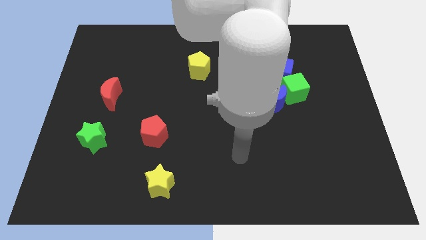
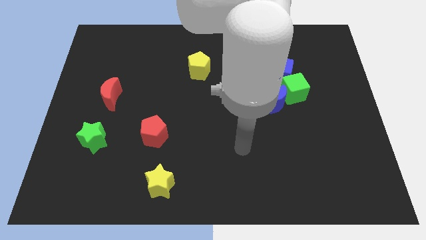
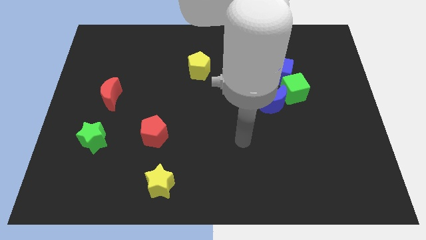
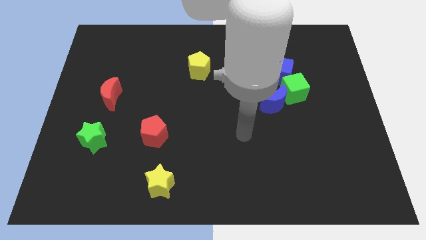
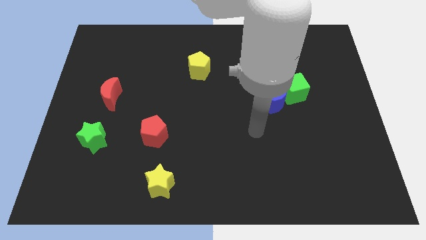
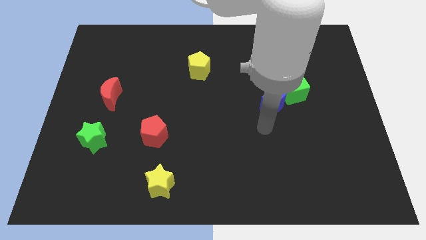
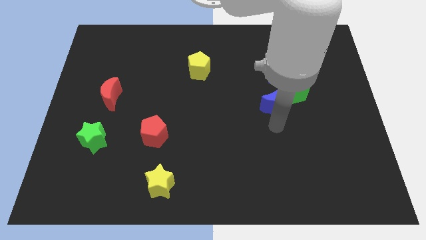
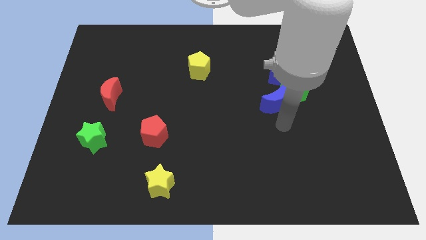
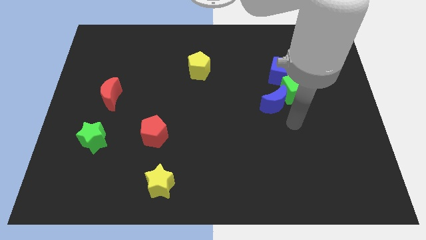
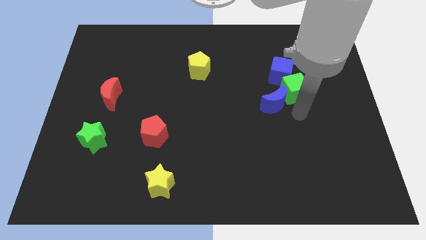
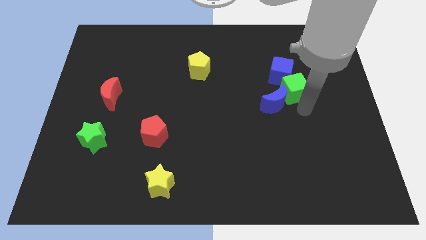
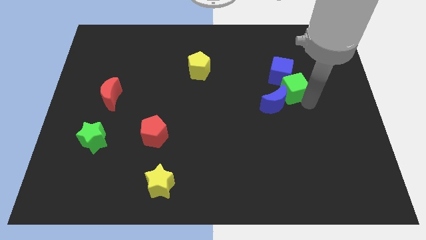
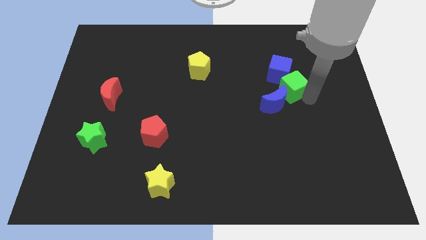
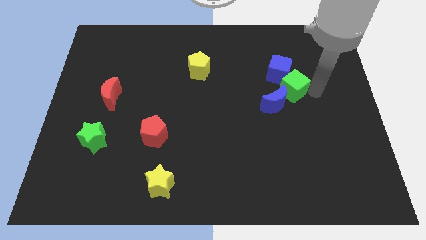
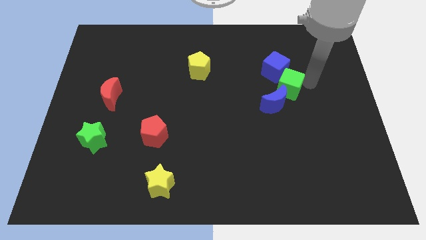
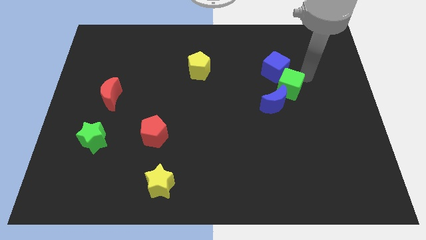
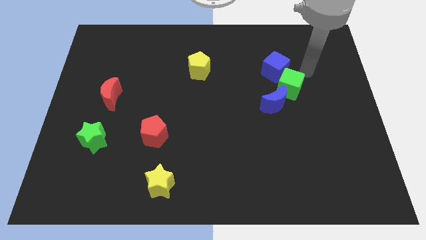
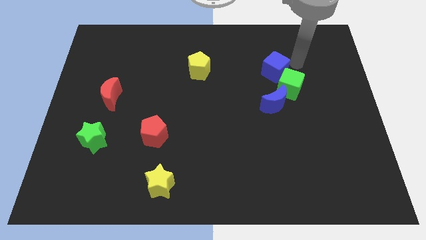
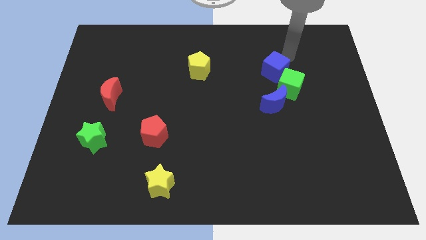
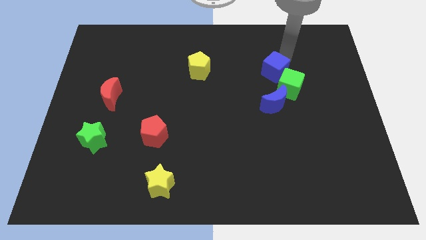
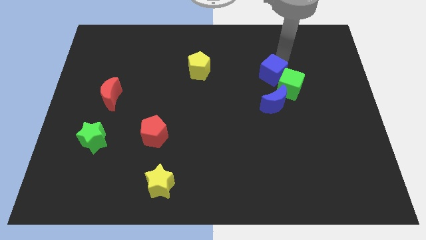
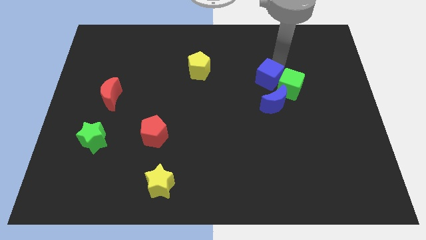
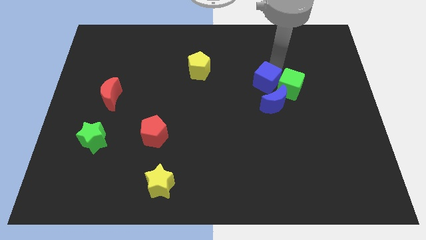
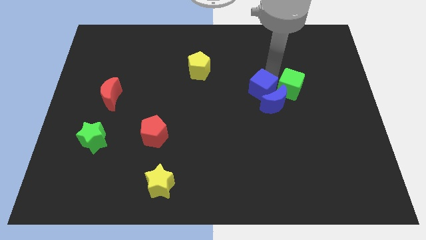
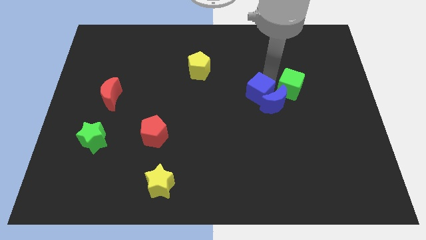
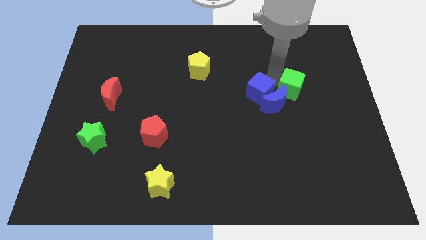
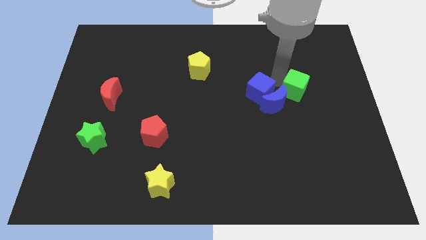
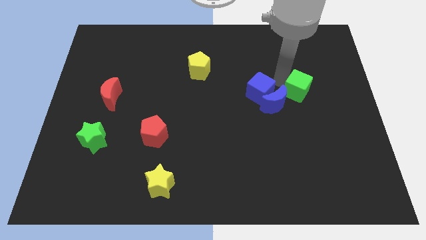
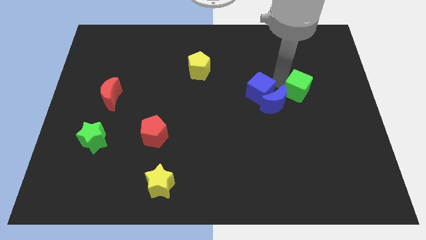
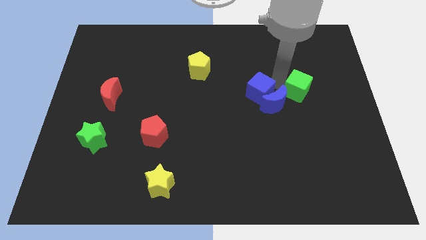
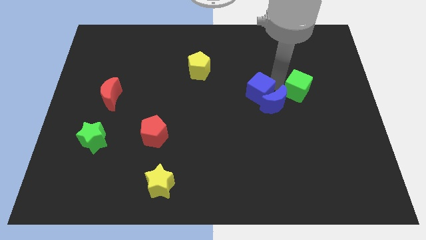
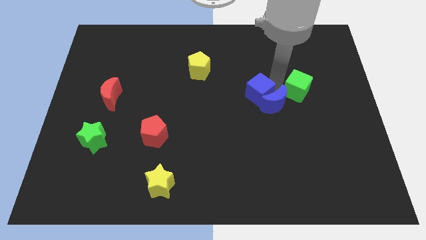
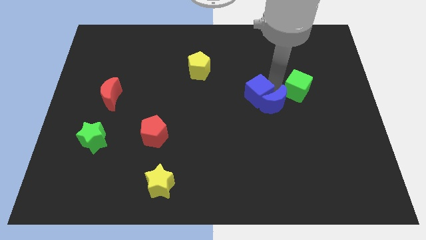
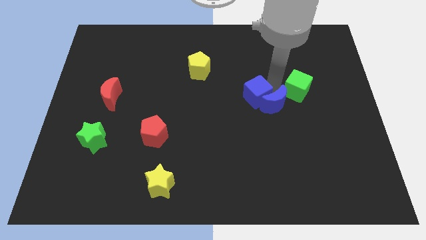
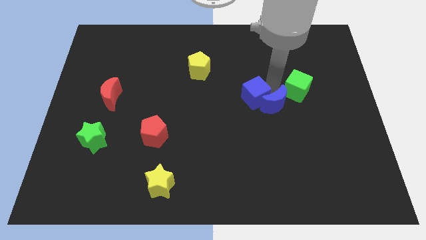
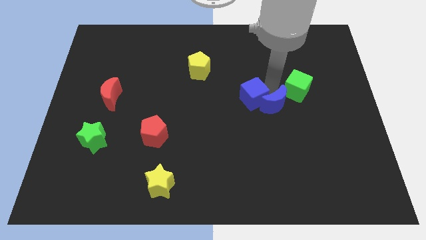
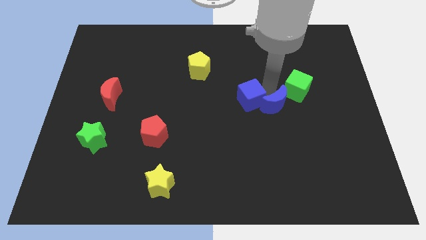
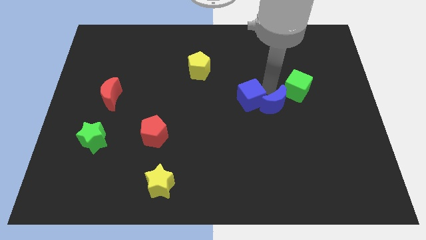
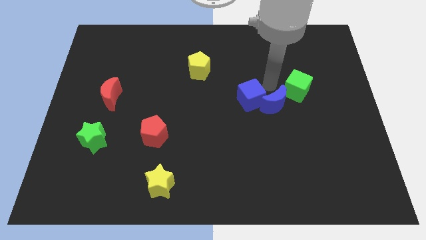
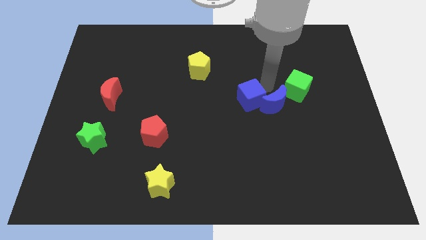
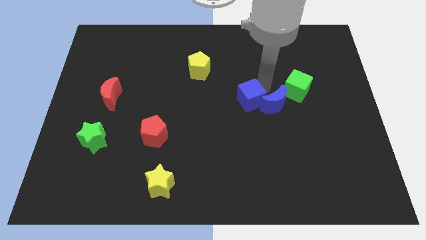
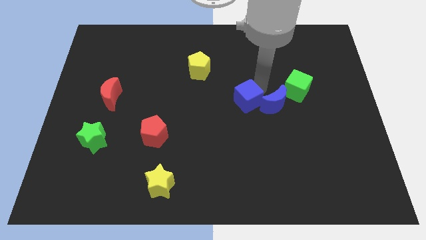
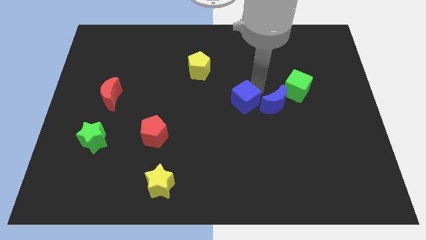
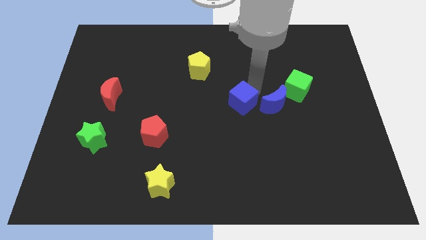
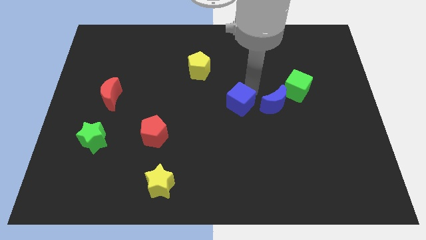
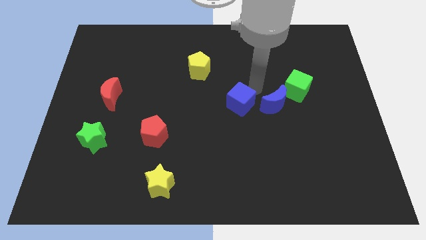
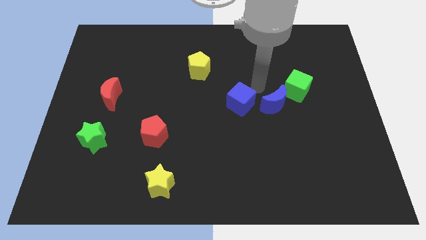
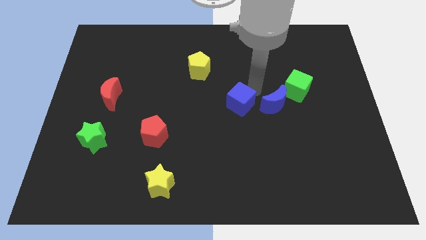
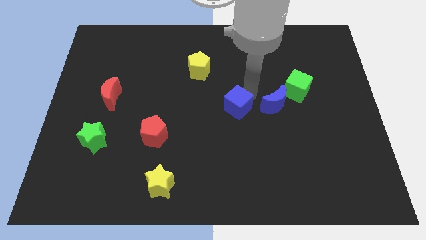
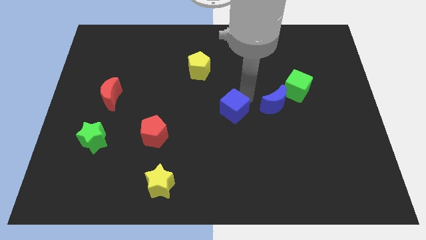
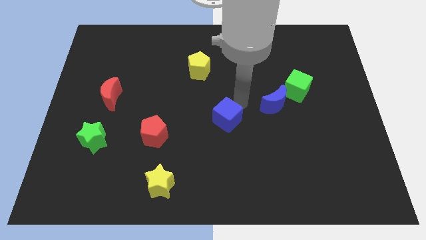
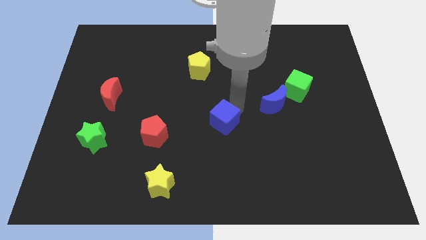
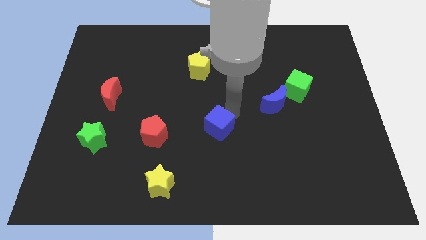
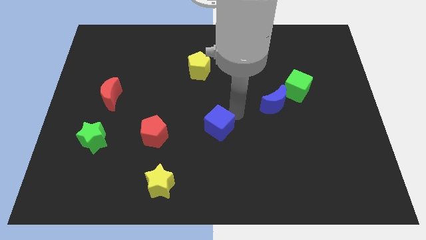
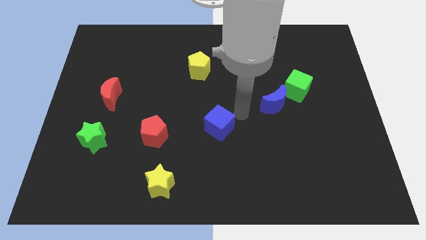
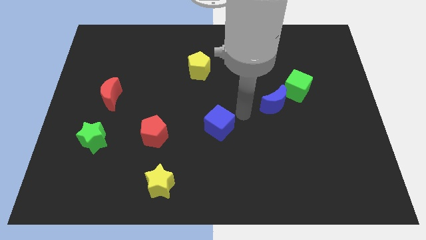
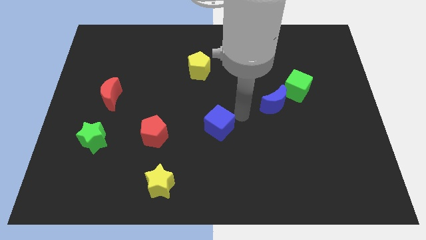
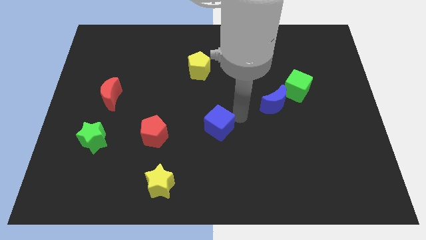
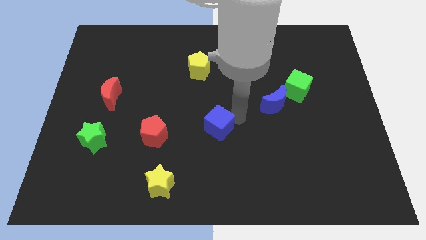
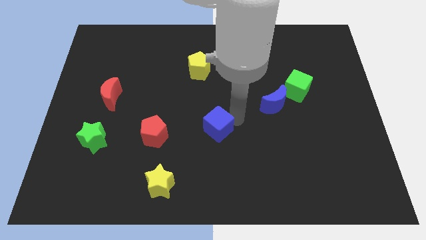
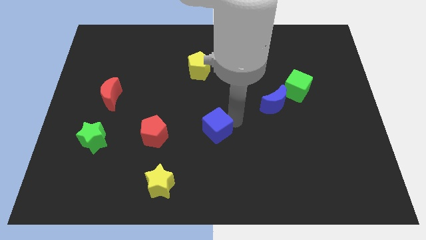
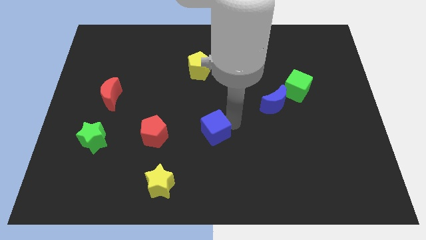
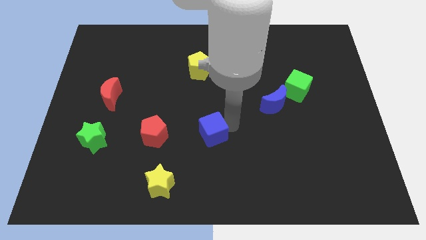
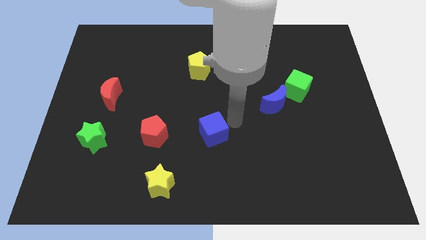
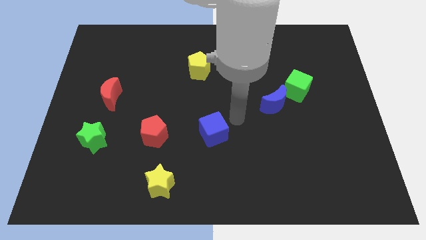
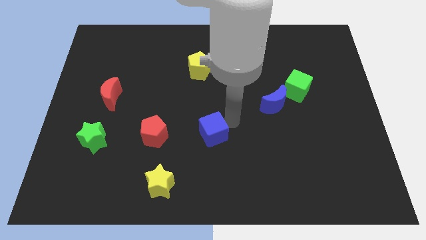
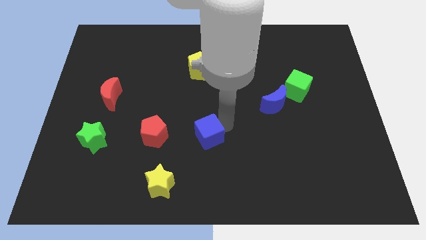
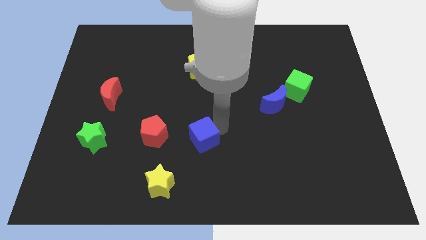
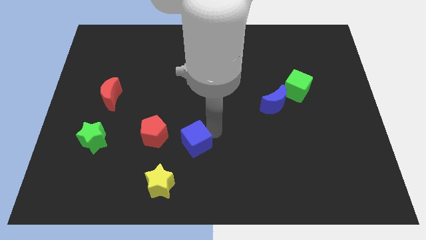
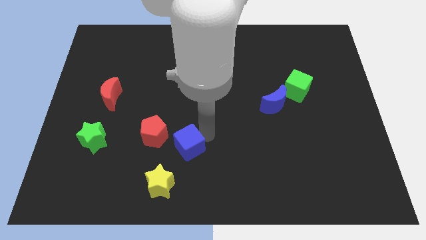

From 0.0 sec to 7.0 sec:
put the blue cube to the bottom right of the red pentagon

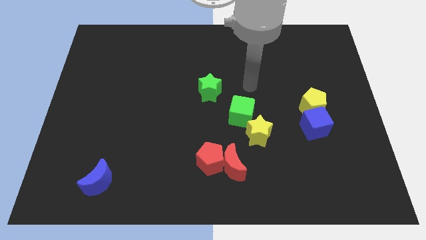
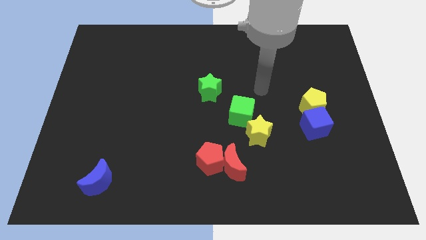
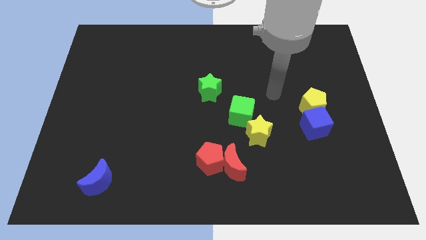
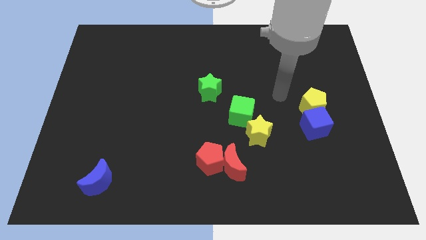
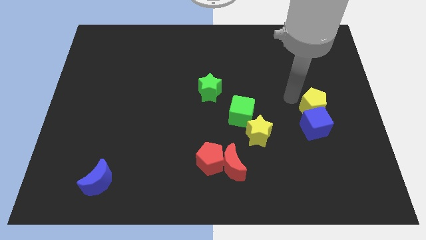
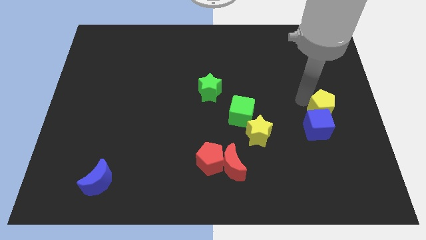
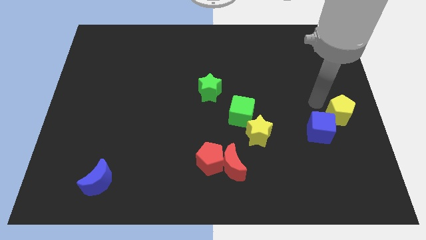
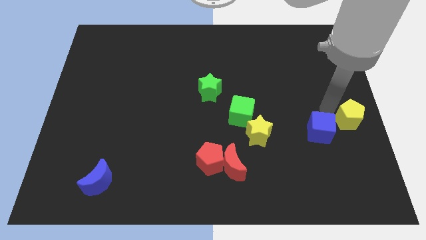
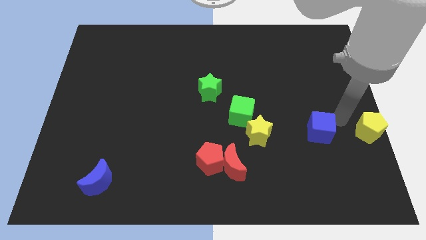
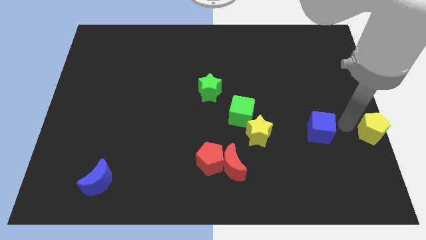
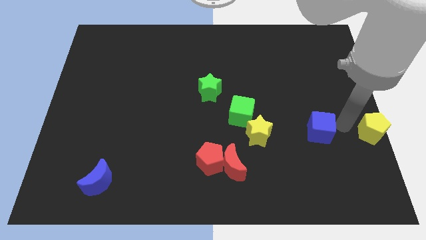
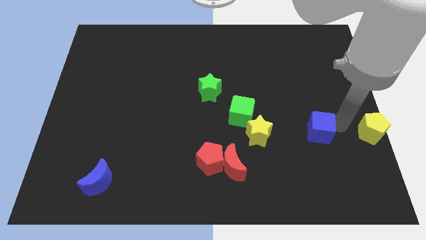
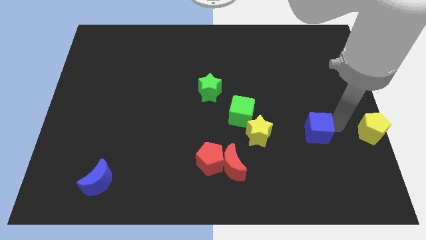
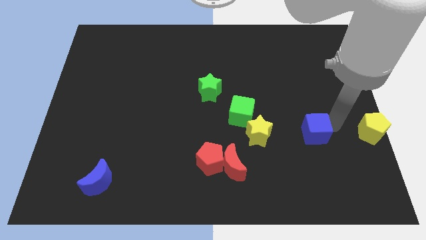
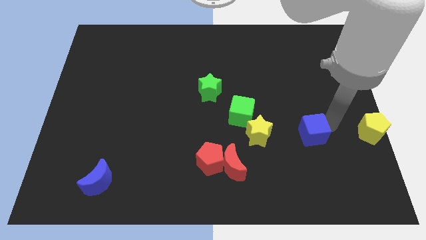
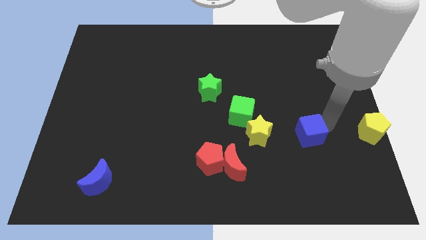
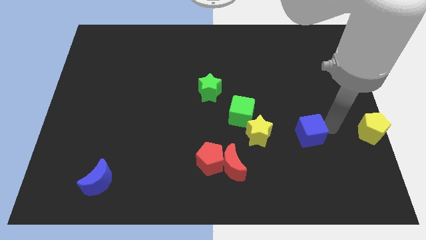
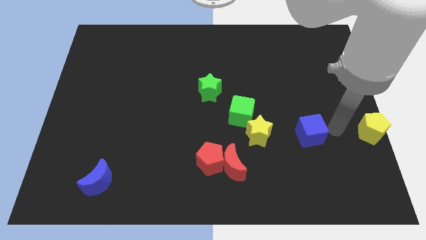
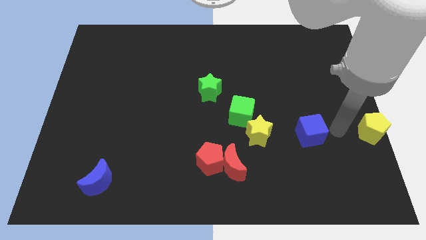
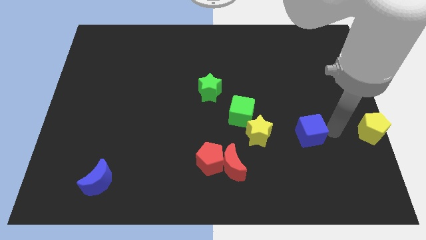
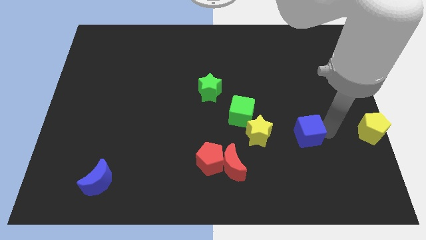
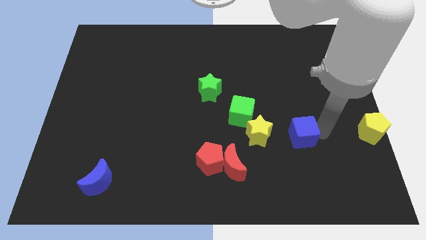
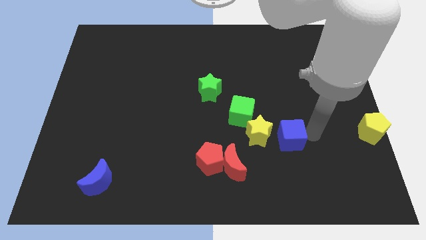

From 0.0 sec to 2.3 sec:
move the blue cube to the bottom right side of the green cube
